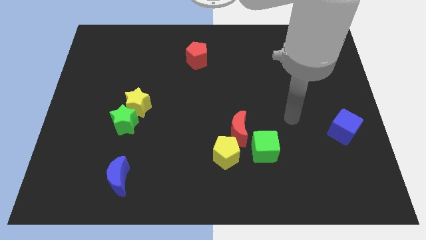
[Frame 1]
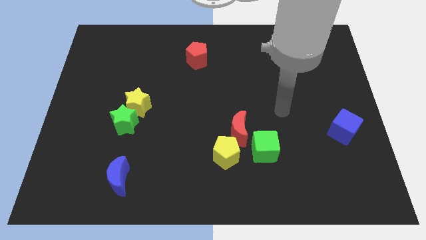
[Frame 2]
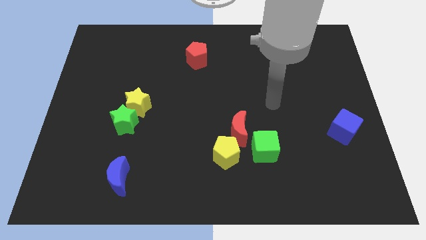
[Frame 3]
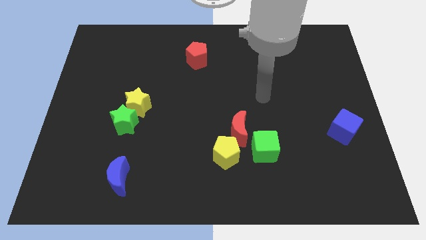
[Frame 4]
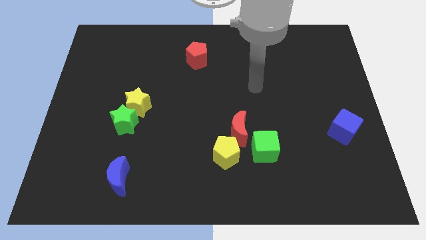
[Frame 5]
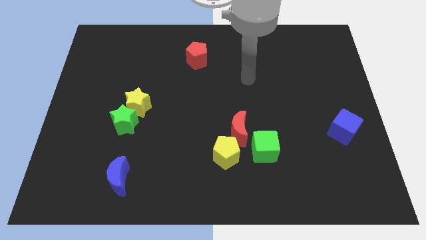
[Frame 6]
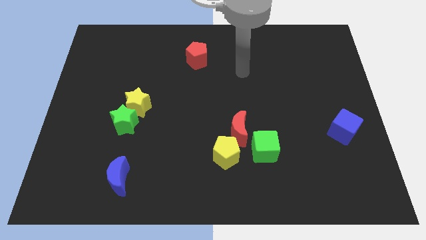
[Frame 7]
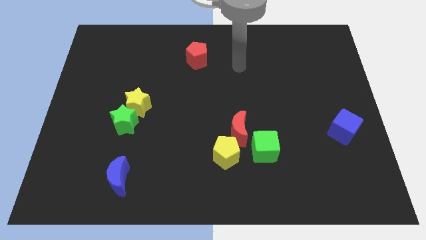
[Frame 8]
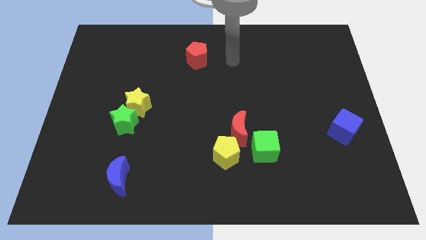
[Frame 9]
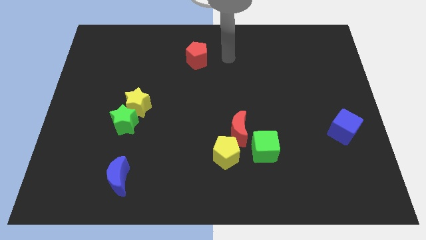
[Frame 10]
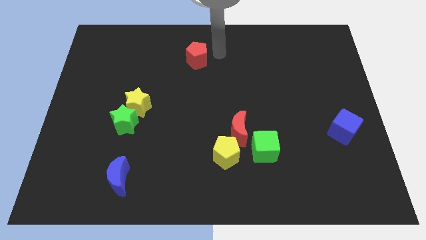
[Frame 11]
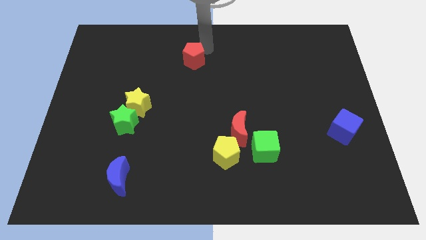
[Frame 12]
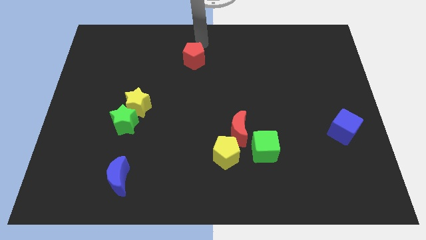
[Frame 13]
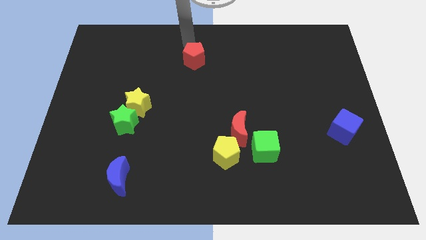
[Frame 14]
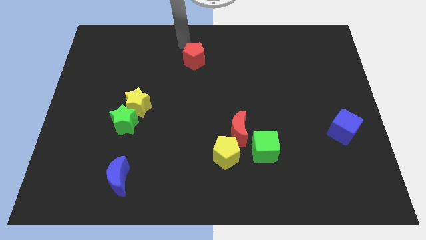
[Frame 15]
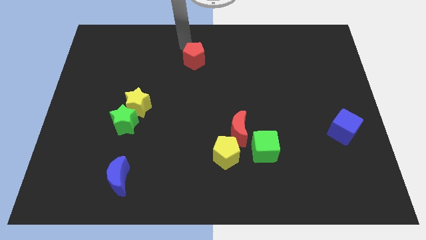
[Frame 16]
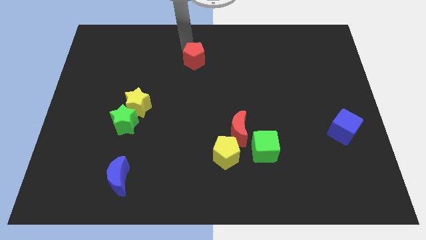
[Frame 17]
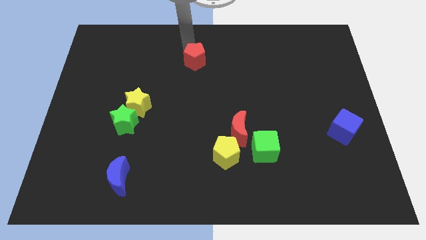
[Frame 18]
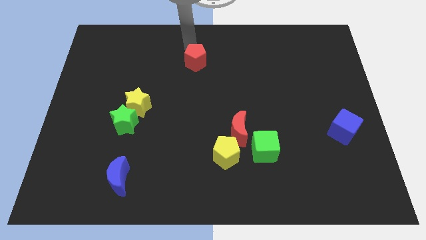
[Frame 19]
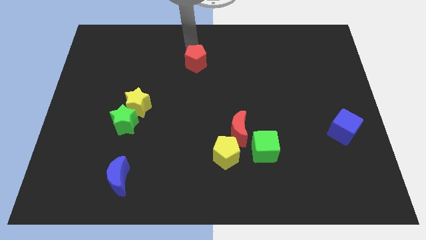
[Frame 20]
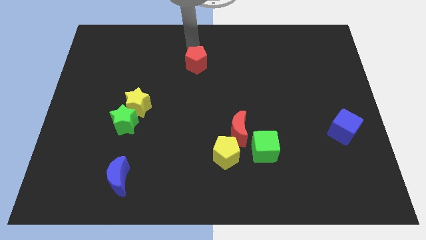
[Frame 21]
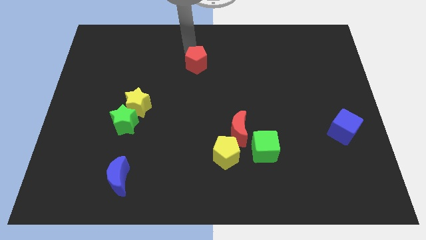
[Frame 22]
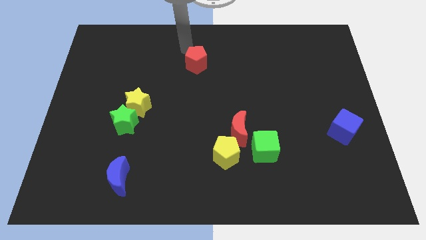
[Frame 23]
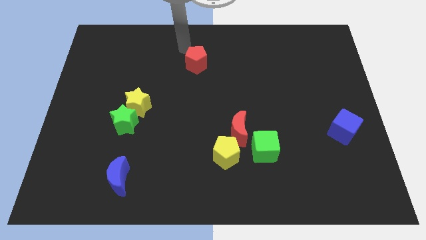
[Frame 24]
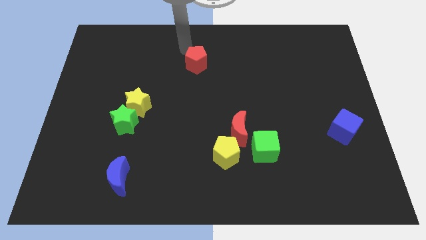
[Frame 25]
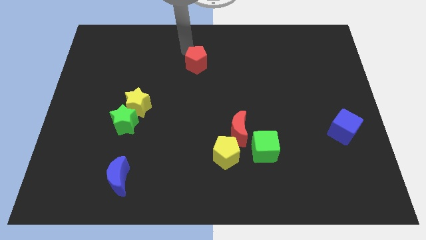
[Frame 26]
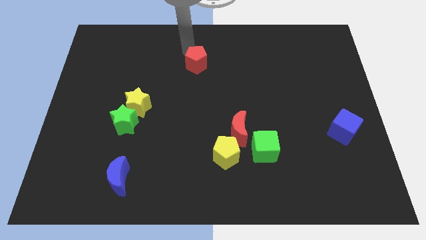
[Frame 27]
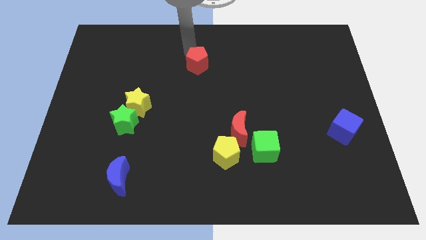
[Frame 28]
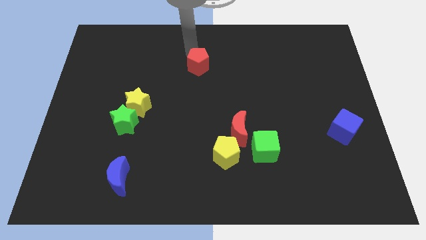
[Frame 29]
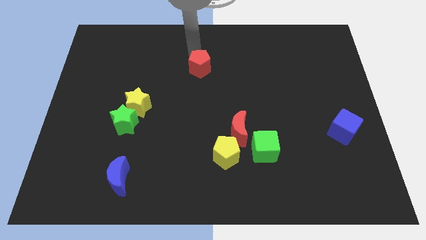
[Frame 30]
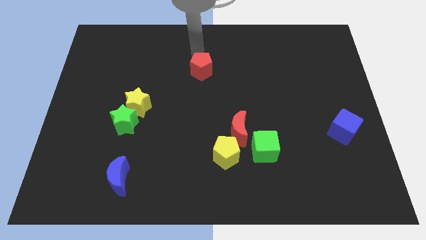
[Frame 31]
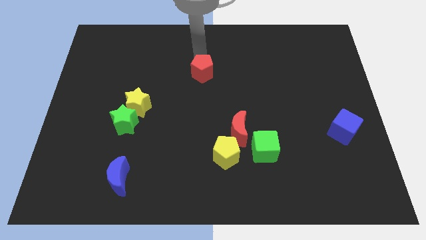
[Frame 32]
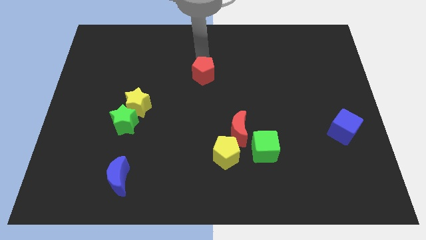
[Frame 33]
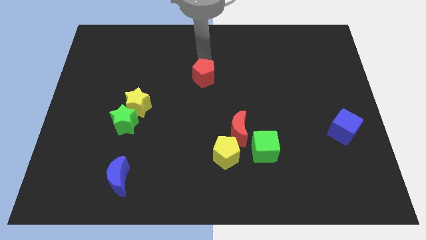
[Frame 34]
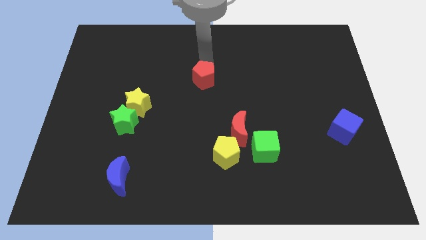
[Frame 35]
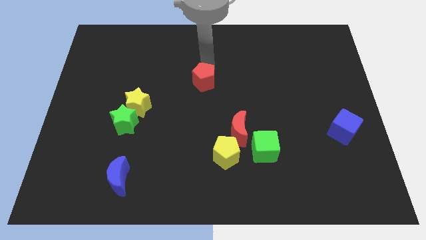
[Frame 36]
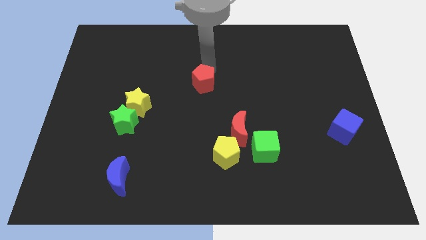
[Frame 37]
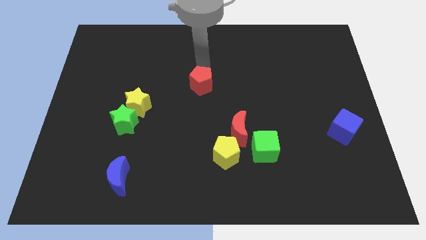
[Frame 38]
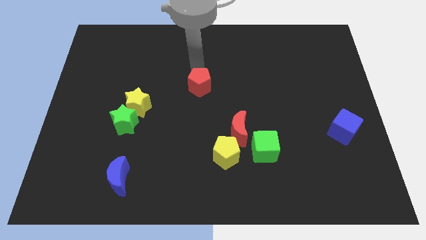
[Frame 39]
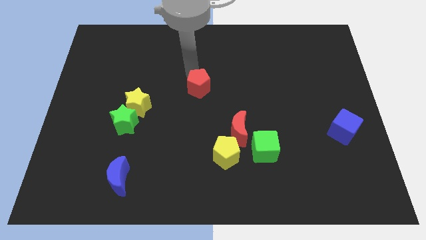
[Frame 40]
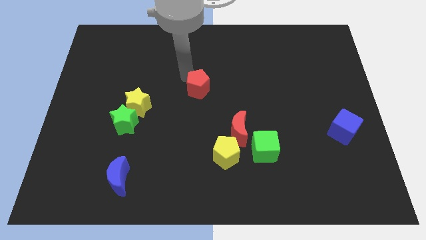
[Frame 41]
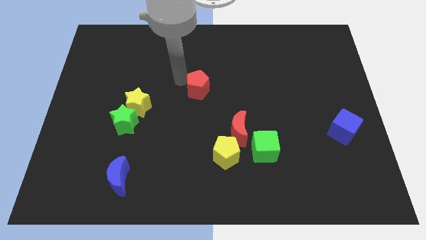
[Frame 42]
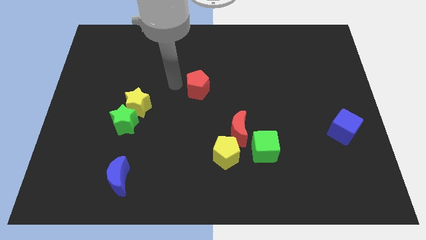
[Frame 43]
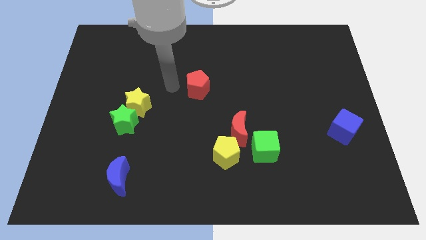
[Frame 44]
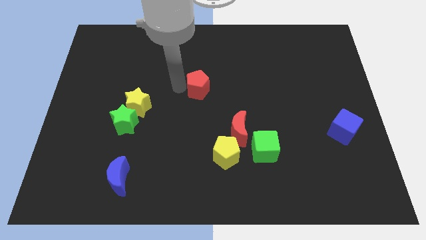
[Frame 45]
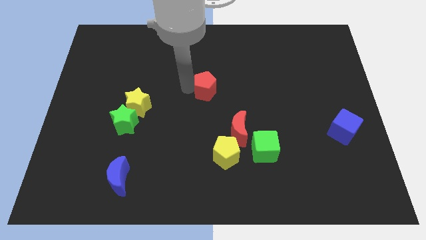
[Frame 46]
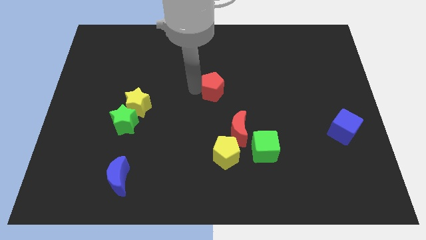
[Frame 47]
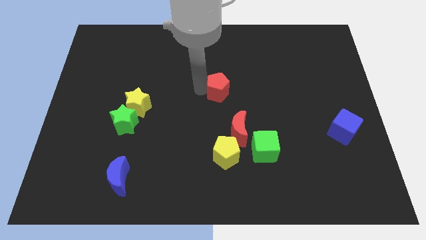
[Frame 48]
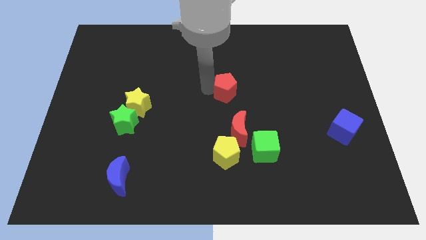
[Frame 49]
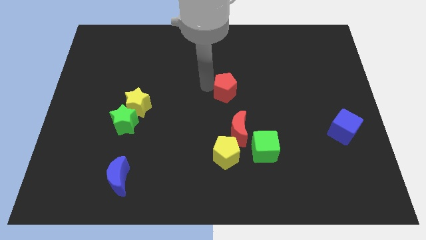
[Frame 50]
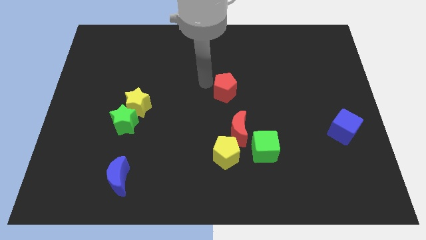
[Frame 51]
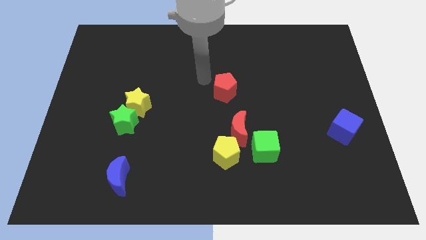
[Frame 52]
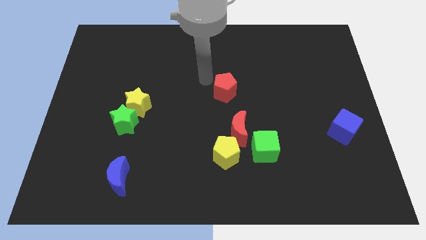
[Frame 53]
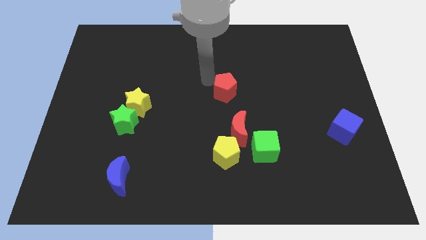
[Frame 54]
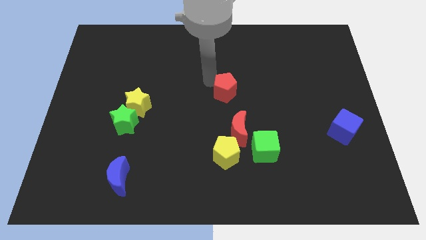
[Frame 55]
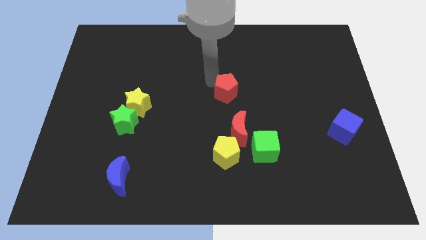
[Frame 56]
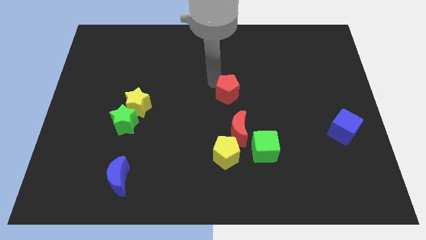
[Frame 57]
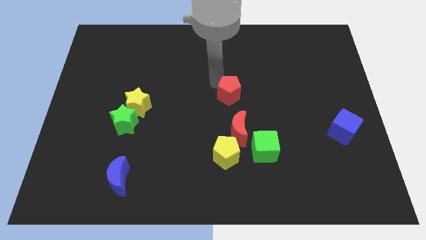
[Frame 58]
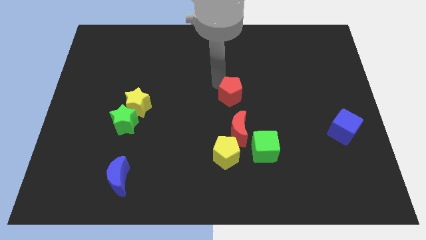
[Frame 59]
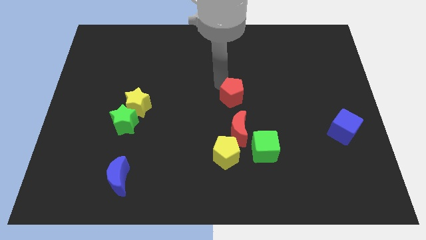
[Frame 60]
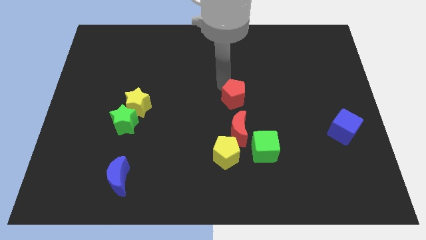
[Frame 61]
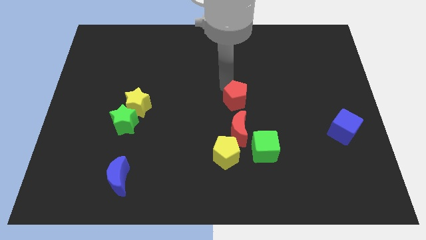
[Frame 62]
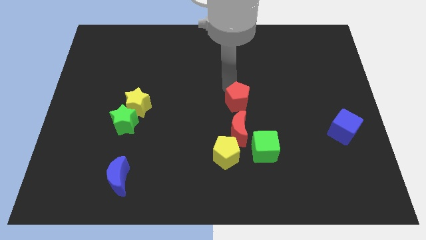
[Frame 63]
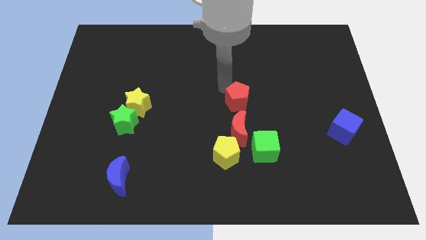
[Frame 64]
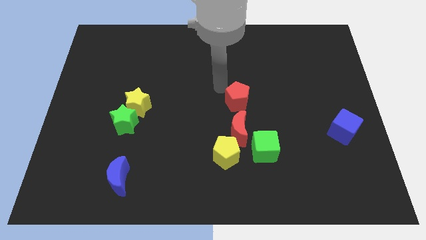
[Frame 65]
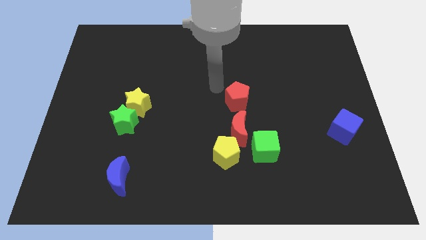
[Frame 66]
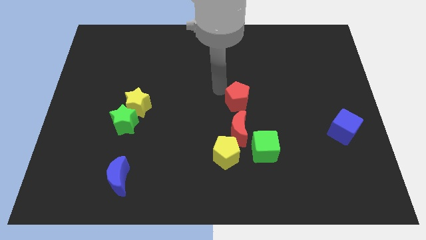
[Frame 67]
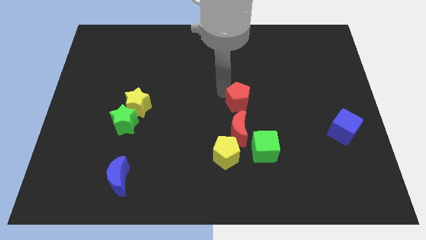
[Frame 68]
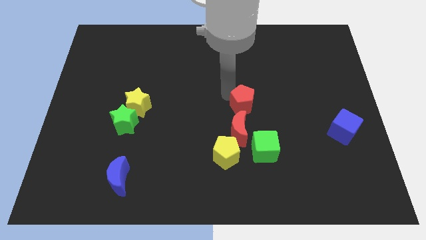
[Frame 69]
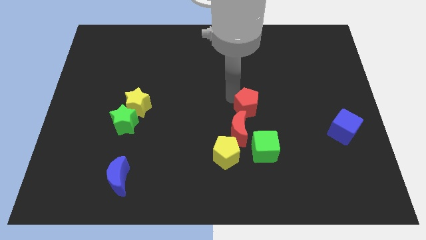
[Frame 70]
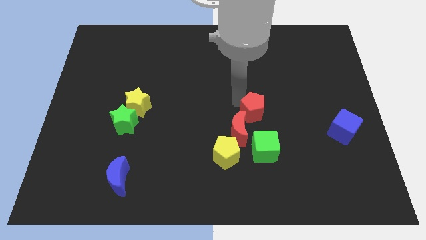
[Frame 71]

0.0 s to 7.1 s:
move the red pentagon downwards and right

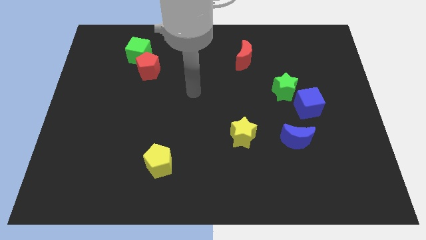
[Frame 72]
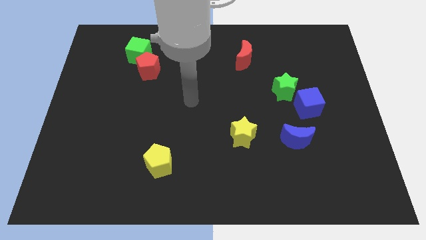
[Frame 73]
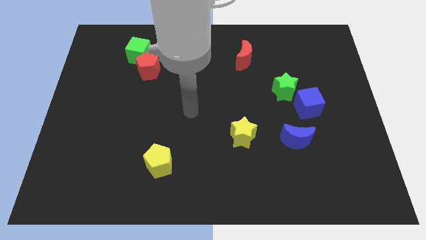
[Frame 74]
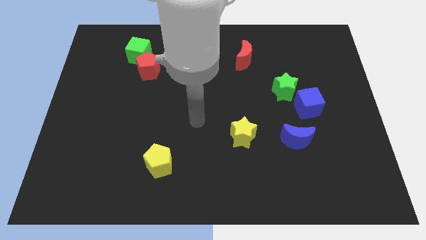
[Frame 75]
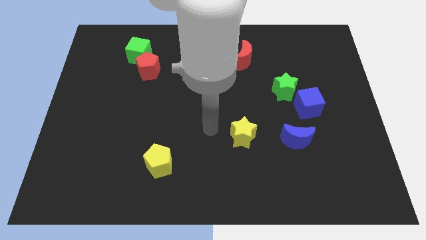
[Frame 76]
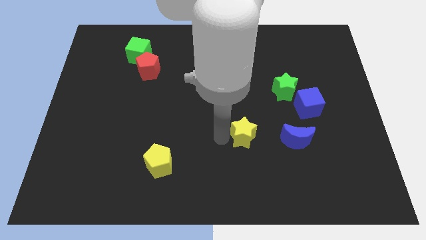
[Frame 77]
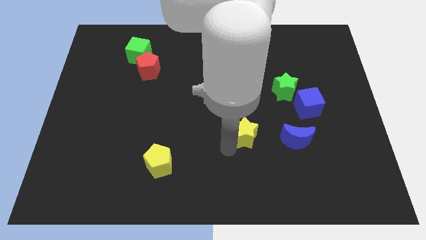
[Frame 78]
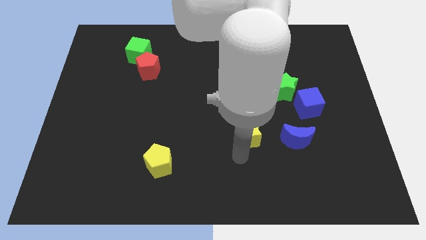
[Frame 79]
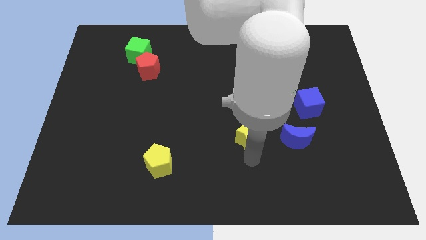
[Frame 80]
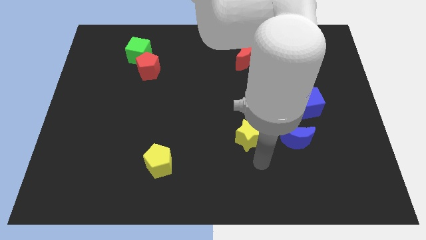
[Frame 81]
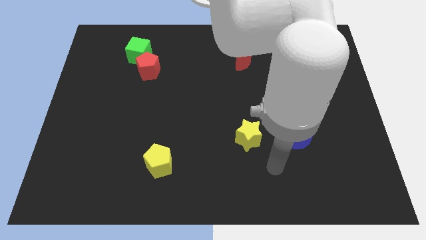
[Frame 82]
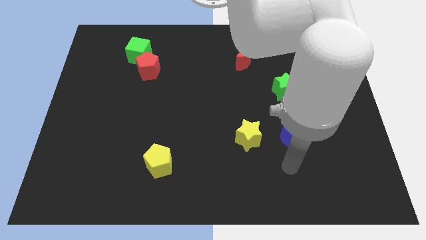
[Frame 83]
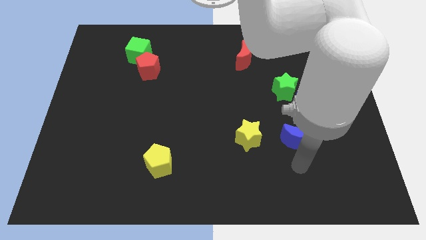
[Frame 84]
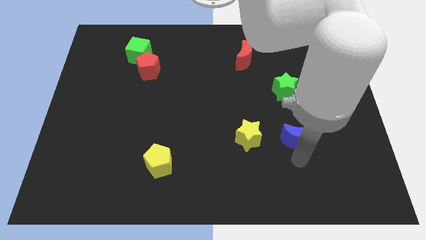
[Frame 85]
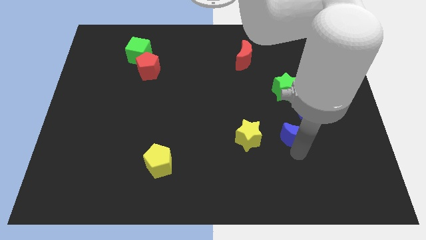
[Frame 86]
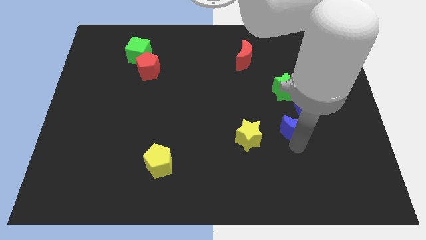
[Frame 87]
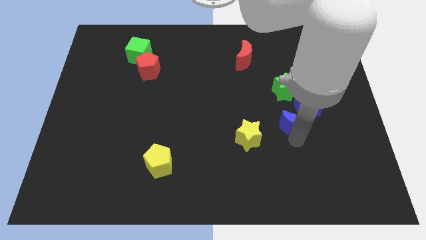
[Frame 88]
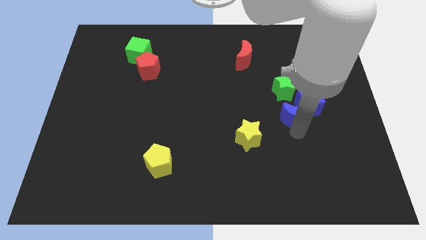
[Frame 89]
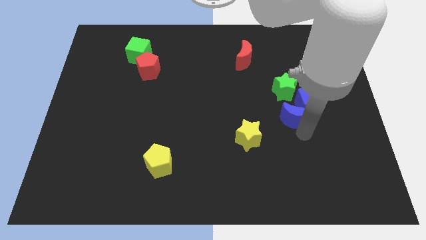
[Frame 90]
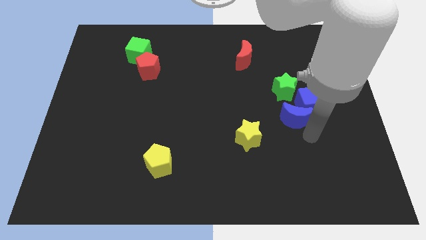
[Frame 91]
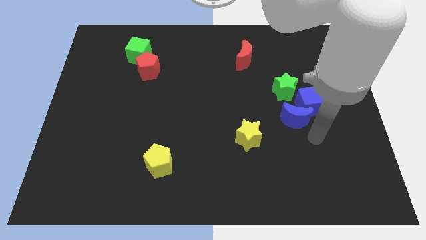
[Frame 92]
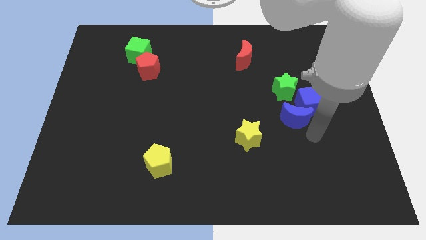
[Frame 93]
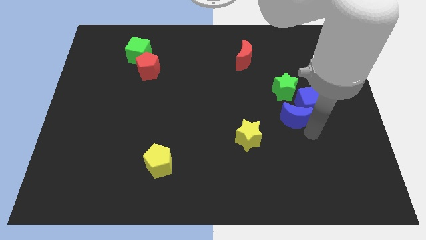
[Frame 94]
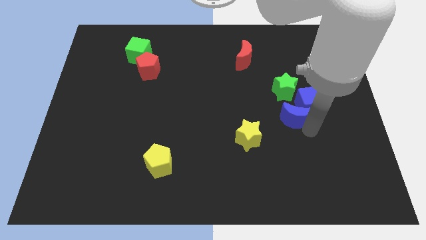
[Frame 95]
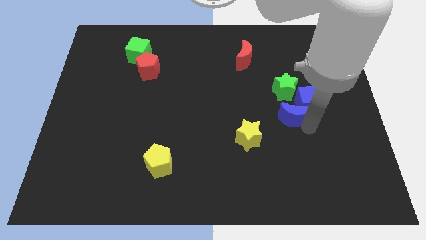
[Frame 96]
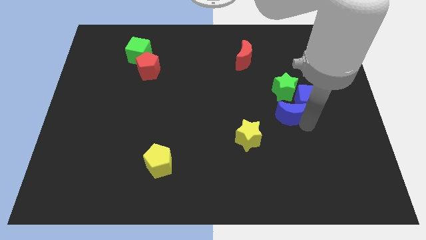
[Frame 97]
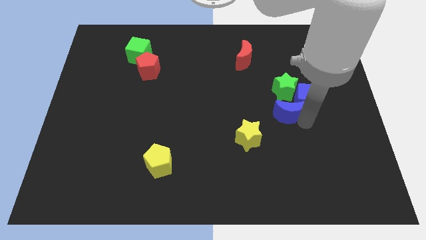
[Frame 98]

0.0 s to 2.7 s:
slide the blue moon upwards somewhat
